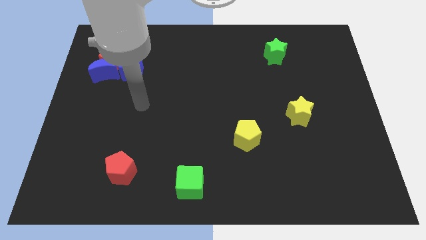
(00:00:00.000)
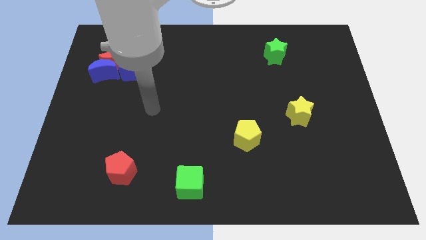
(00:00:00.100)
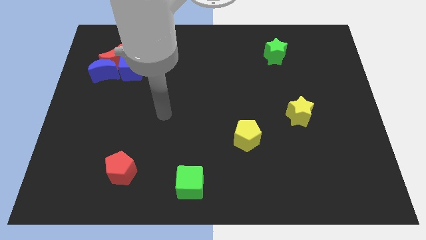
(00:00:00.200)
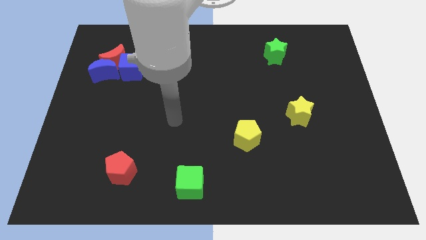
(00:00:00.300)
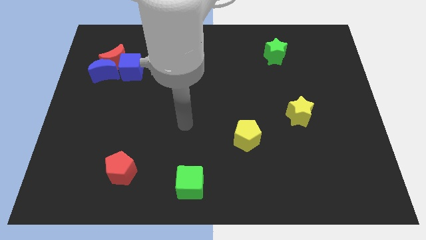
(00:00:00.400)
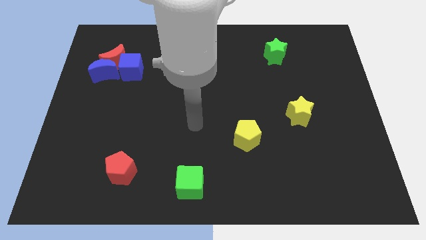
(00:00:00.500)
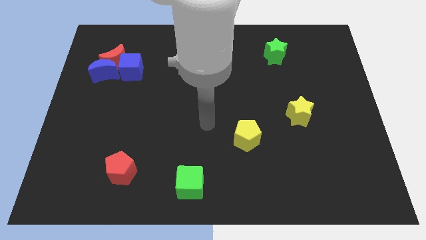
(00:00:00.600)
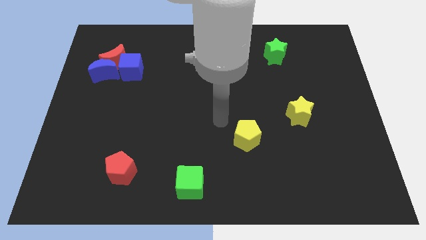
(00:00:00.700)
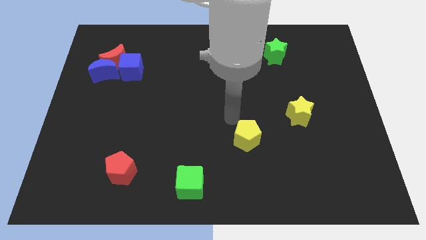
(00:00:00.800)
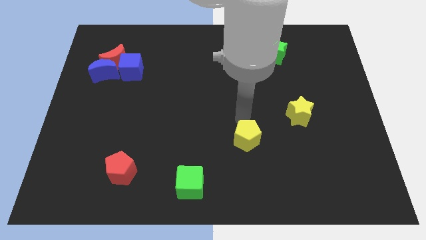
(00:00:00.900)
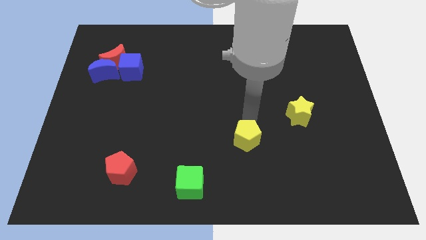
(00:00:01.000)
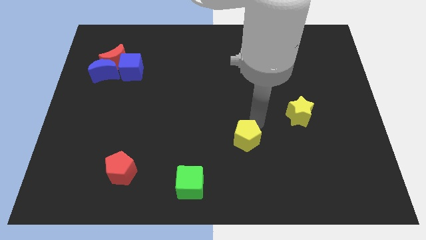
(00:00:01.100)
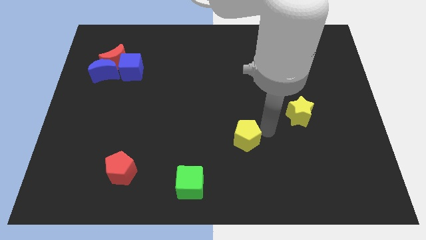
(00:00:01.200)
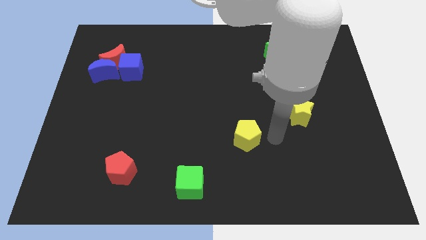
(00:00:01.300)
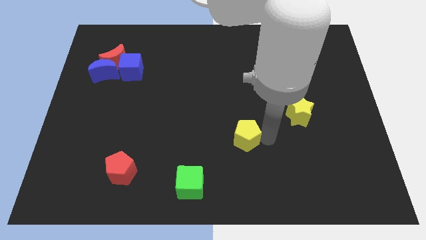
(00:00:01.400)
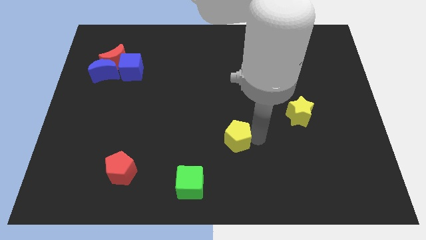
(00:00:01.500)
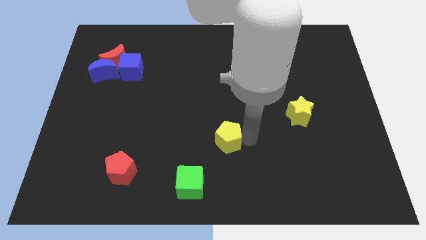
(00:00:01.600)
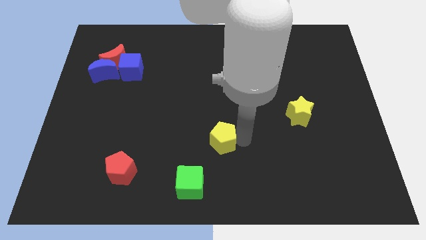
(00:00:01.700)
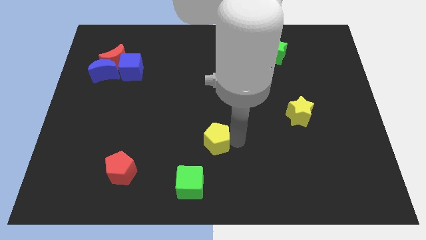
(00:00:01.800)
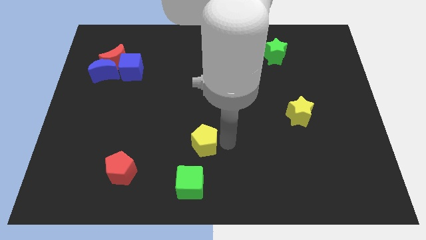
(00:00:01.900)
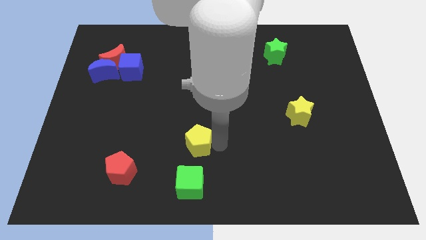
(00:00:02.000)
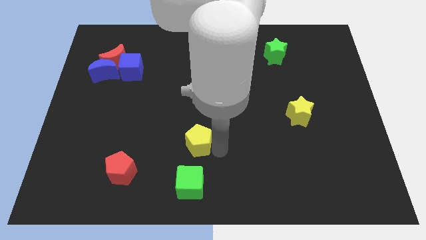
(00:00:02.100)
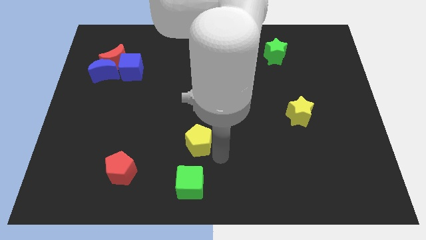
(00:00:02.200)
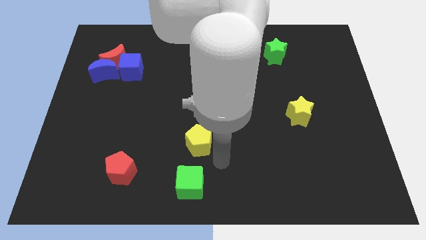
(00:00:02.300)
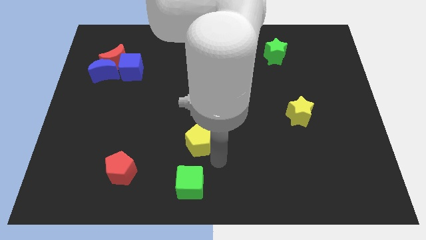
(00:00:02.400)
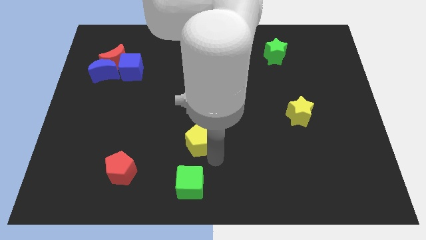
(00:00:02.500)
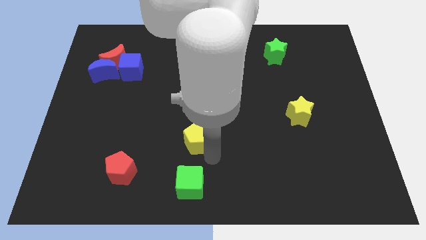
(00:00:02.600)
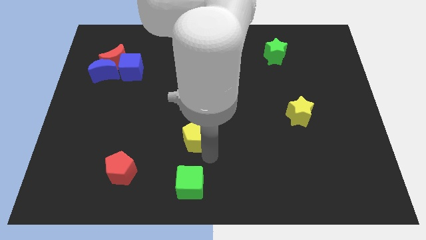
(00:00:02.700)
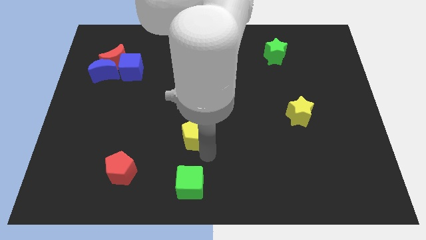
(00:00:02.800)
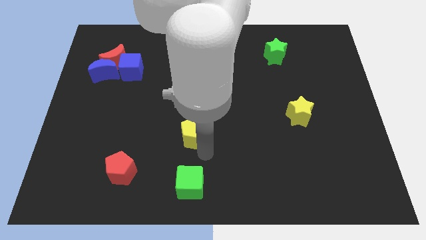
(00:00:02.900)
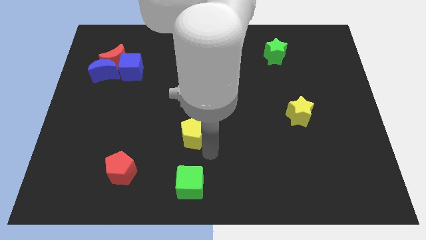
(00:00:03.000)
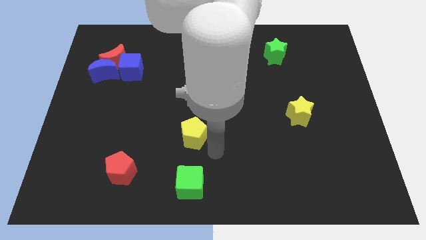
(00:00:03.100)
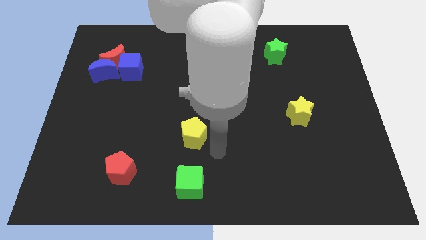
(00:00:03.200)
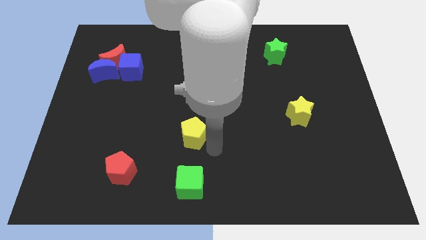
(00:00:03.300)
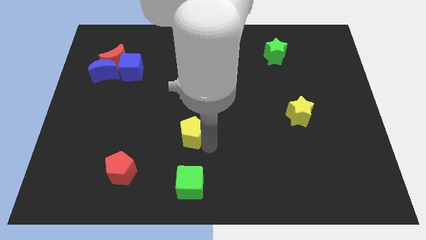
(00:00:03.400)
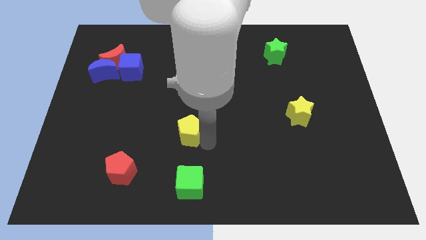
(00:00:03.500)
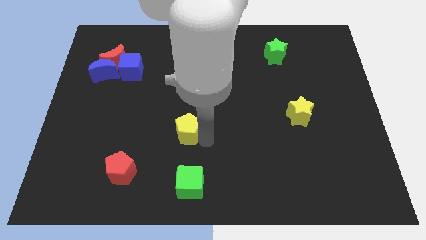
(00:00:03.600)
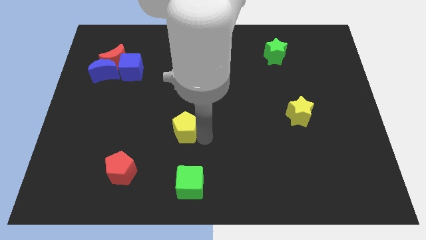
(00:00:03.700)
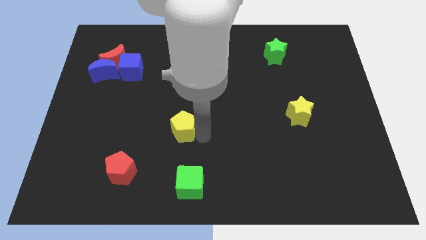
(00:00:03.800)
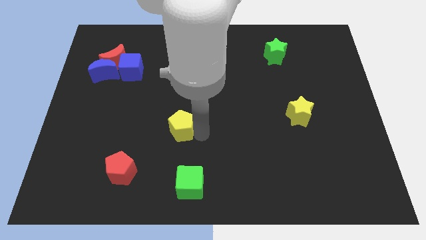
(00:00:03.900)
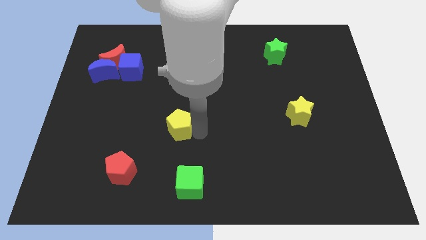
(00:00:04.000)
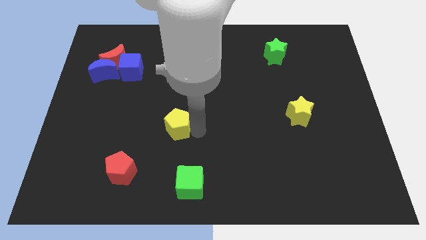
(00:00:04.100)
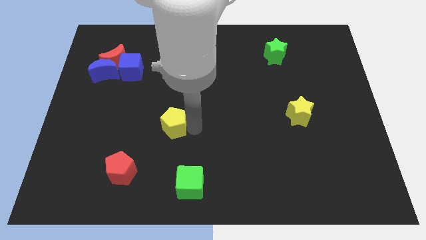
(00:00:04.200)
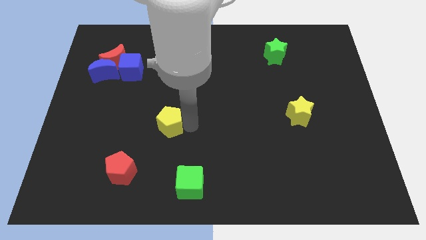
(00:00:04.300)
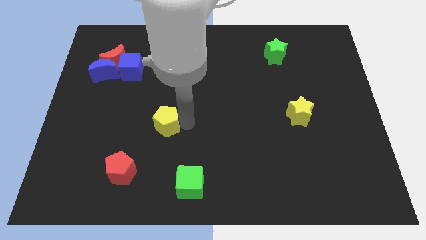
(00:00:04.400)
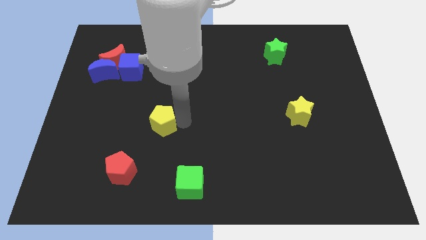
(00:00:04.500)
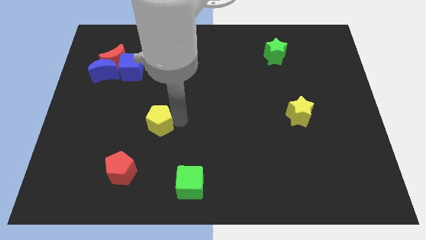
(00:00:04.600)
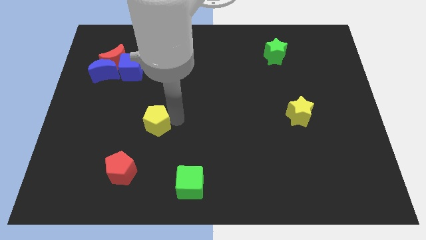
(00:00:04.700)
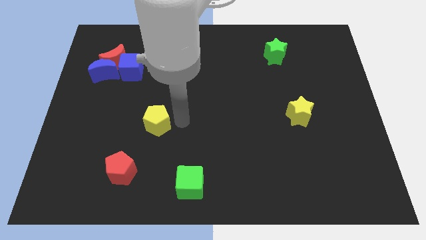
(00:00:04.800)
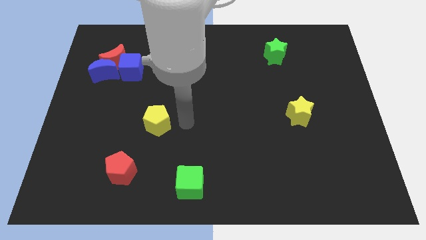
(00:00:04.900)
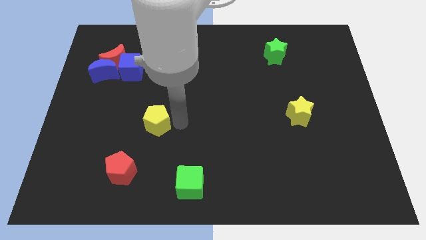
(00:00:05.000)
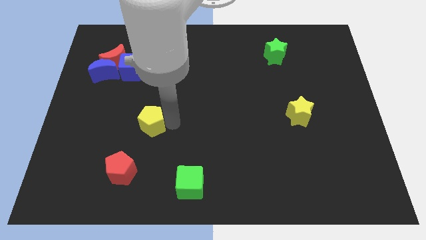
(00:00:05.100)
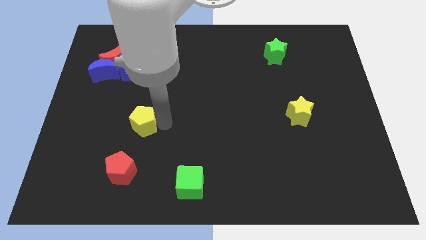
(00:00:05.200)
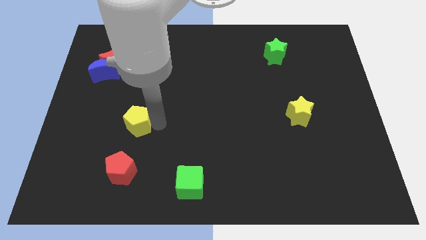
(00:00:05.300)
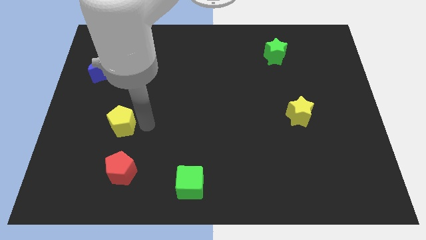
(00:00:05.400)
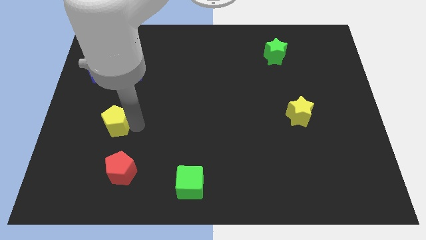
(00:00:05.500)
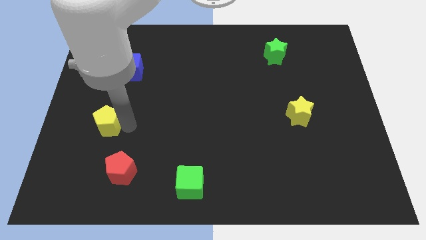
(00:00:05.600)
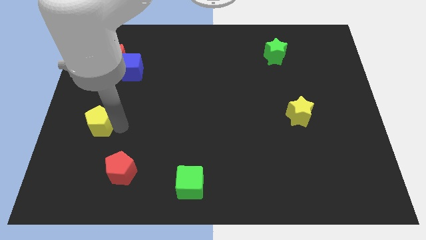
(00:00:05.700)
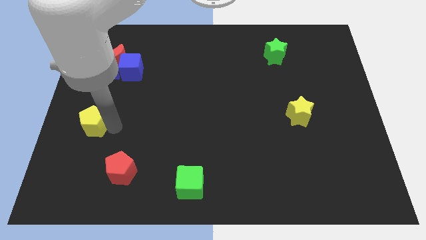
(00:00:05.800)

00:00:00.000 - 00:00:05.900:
move the yellow pentagon to the center left

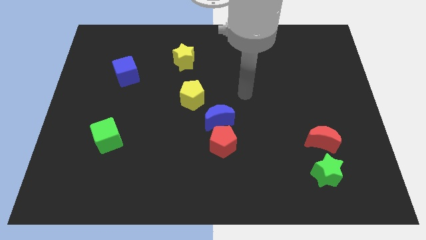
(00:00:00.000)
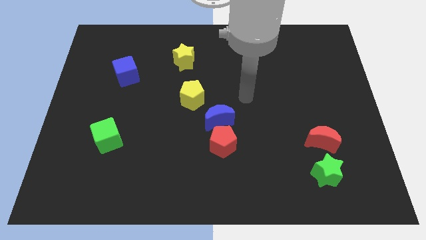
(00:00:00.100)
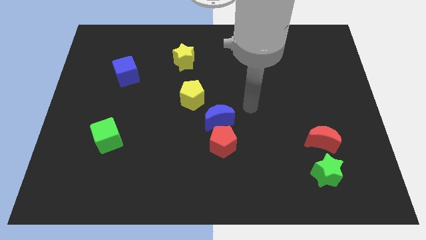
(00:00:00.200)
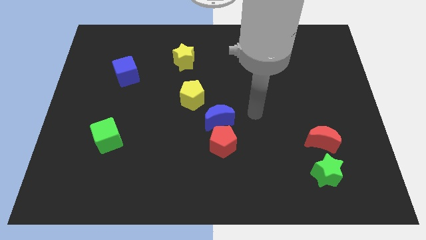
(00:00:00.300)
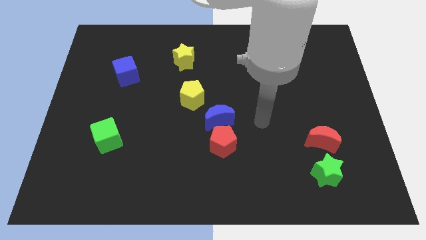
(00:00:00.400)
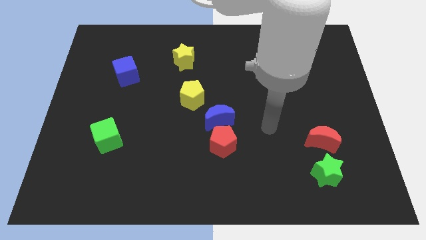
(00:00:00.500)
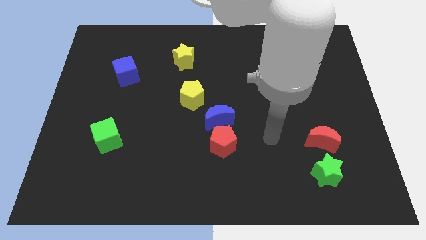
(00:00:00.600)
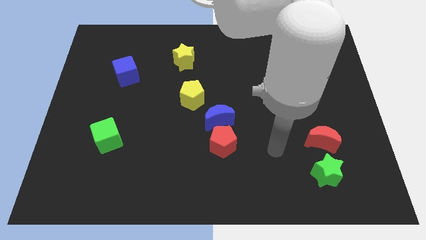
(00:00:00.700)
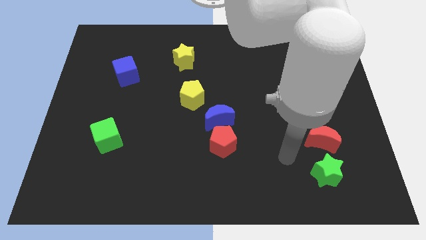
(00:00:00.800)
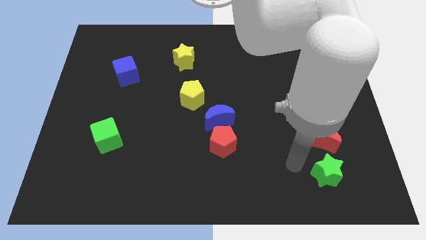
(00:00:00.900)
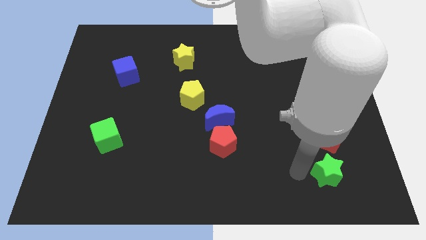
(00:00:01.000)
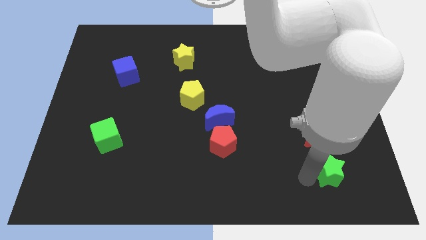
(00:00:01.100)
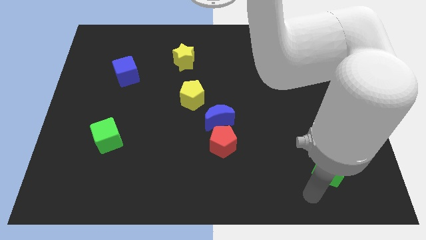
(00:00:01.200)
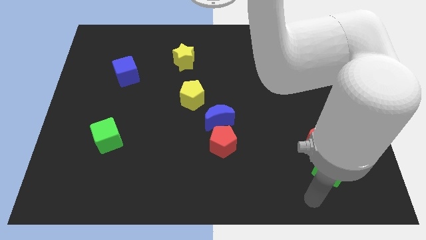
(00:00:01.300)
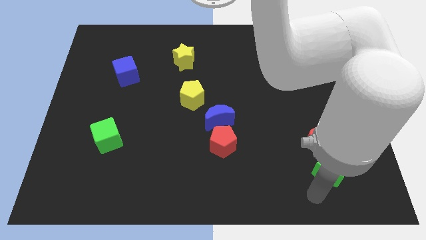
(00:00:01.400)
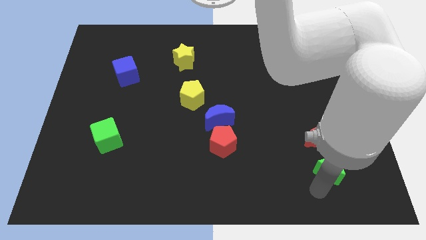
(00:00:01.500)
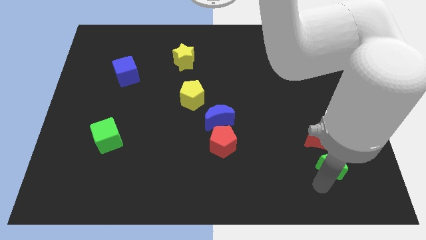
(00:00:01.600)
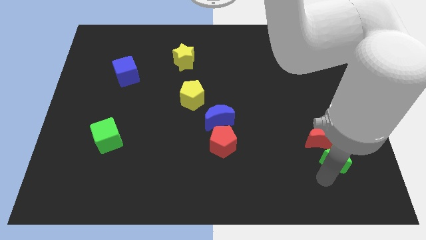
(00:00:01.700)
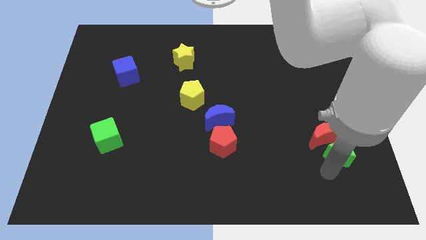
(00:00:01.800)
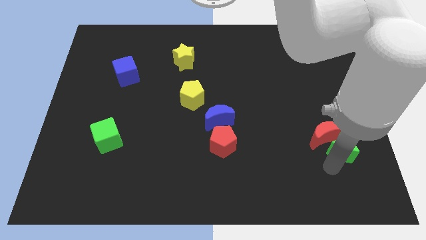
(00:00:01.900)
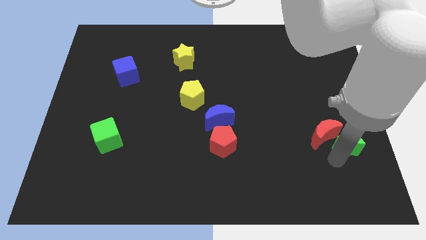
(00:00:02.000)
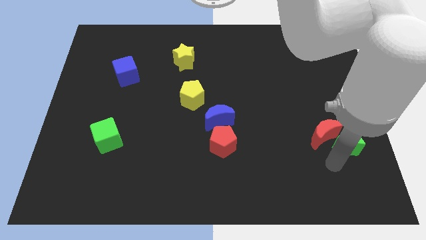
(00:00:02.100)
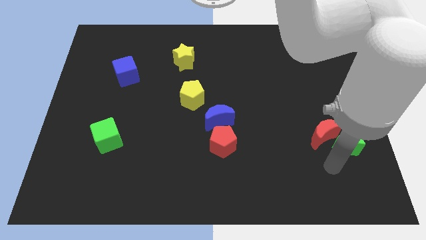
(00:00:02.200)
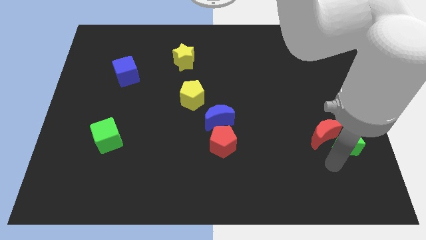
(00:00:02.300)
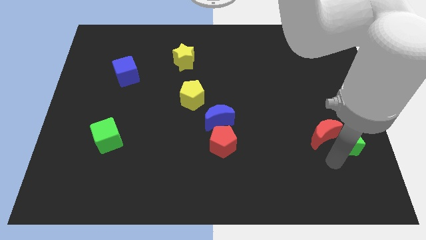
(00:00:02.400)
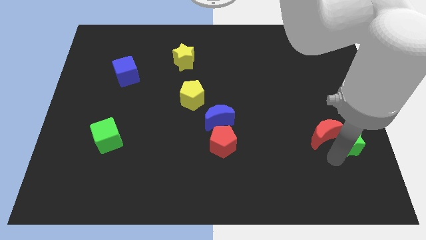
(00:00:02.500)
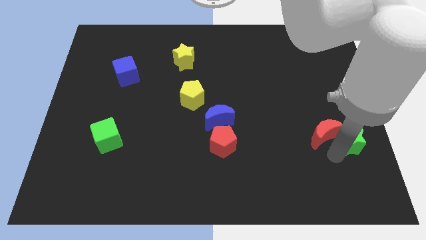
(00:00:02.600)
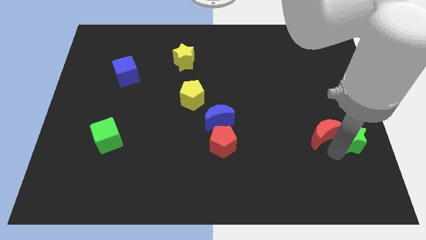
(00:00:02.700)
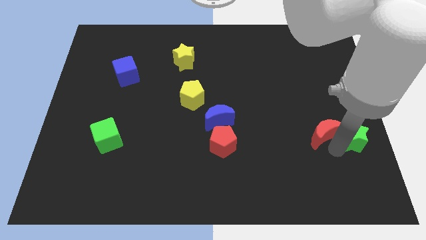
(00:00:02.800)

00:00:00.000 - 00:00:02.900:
slide the green star to the right side
